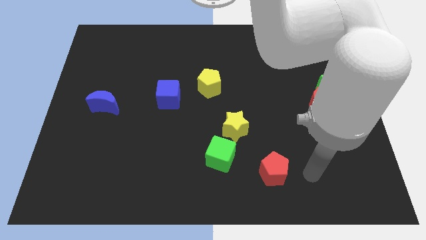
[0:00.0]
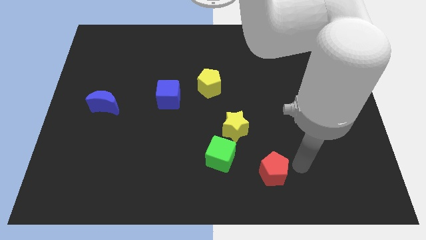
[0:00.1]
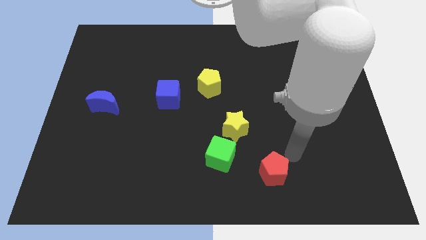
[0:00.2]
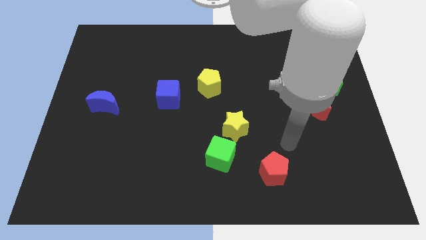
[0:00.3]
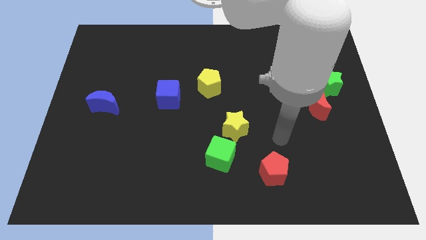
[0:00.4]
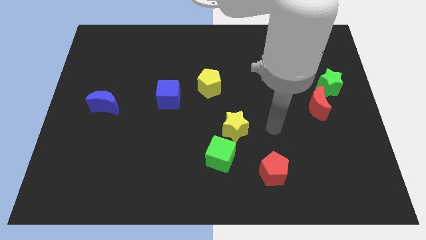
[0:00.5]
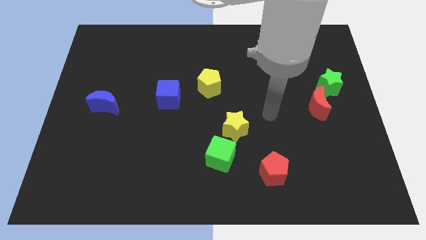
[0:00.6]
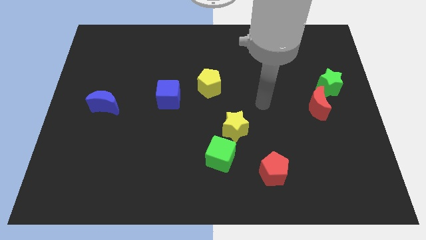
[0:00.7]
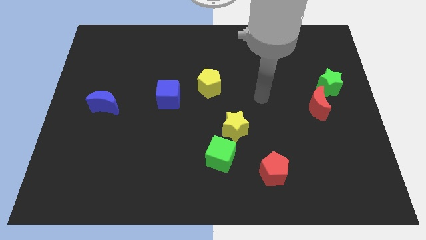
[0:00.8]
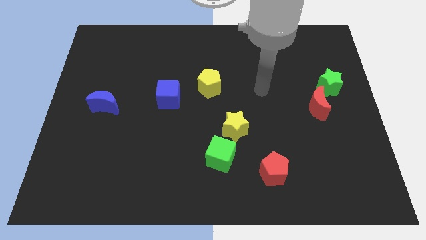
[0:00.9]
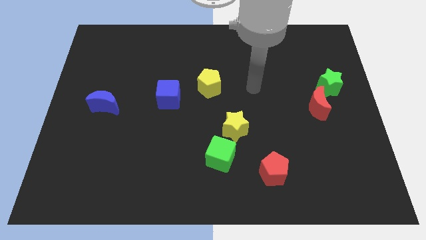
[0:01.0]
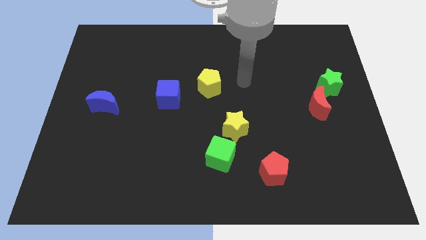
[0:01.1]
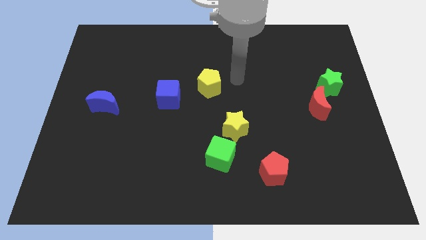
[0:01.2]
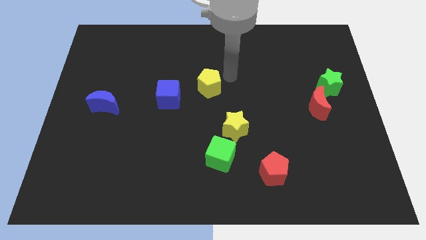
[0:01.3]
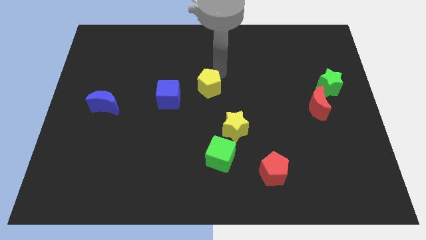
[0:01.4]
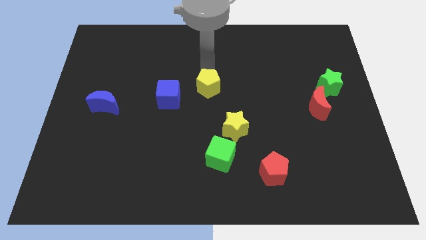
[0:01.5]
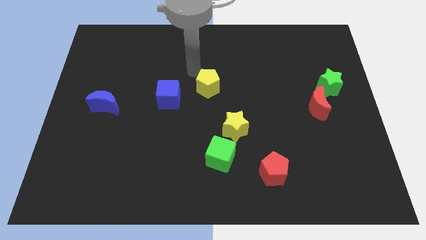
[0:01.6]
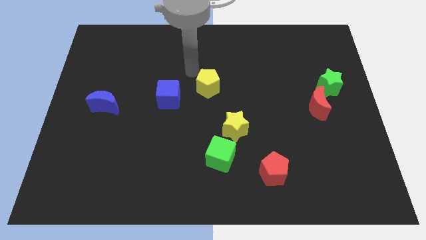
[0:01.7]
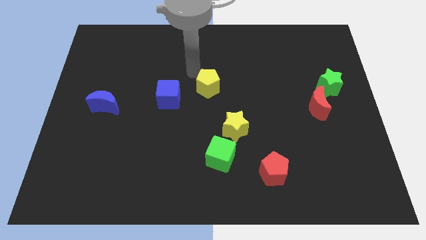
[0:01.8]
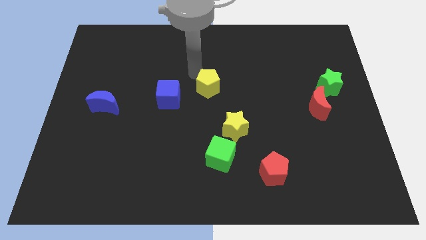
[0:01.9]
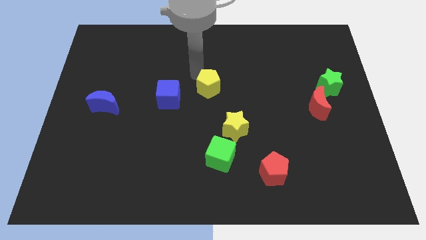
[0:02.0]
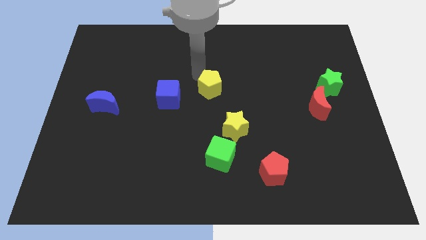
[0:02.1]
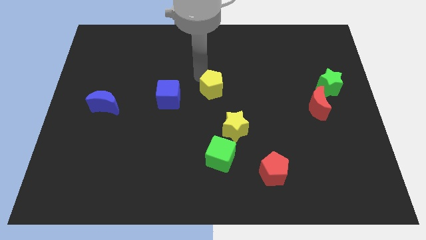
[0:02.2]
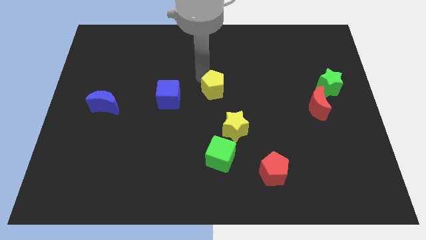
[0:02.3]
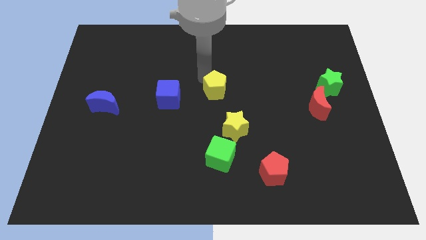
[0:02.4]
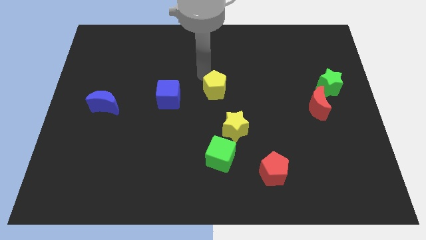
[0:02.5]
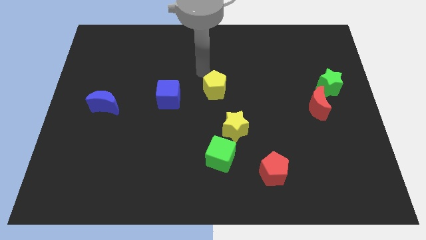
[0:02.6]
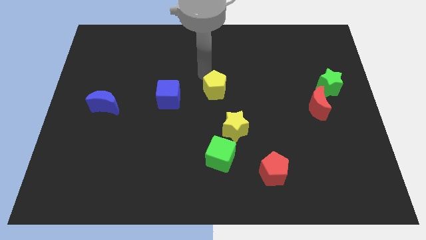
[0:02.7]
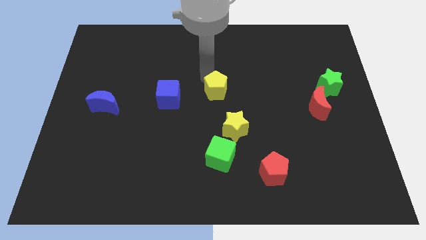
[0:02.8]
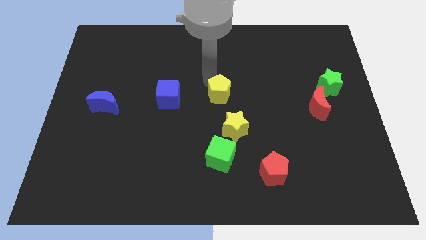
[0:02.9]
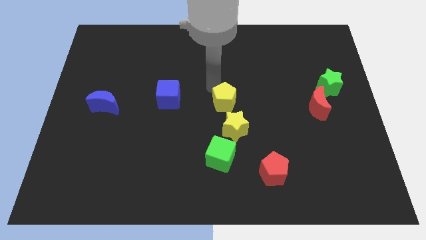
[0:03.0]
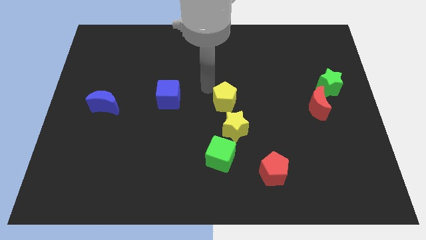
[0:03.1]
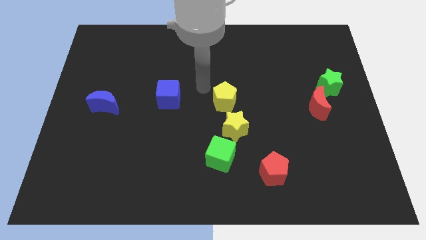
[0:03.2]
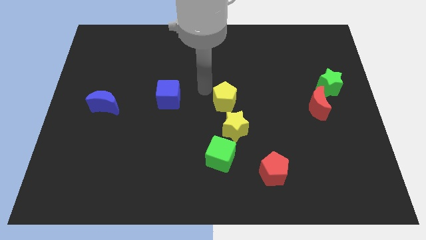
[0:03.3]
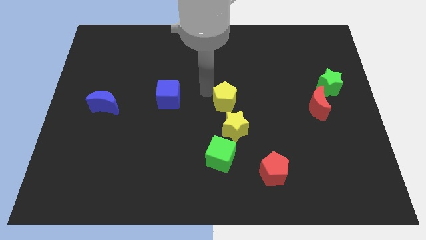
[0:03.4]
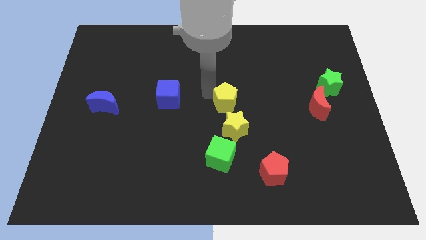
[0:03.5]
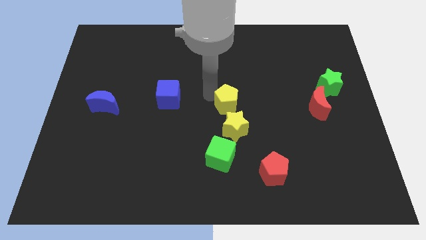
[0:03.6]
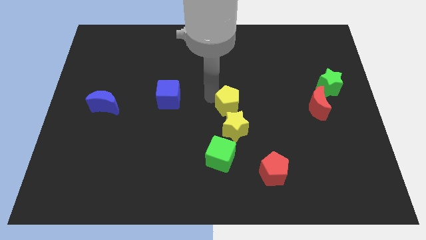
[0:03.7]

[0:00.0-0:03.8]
slightly slide the yellow pentagon downwards and then to the right

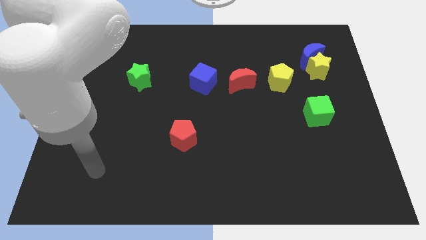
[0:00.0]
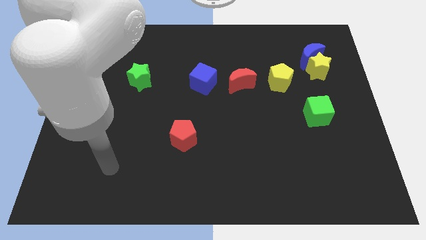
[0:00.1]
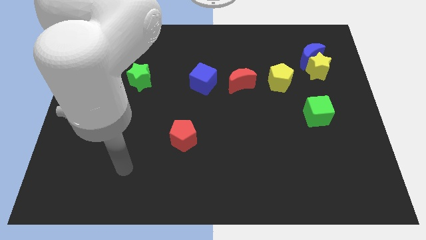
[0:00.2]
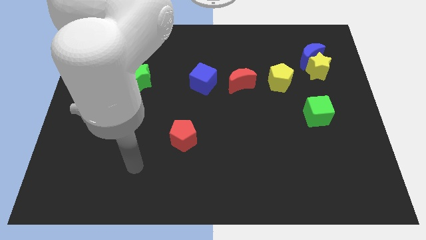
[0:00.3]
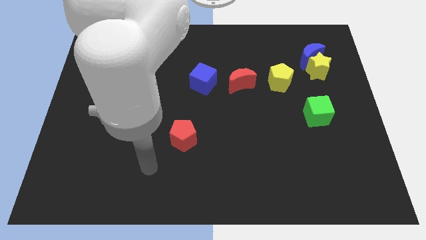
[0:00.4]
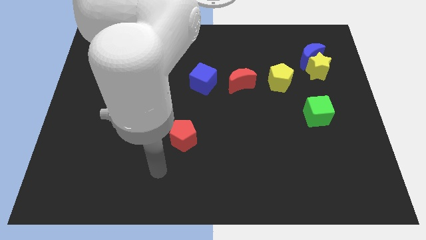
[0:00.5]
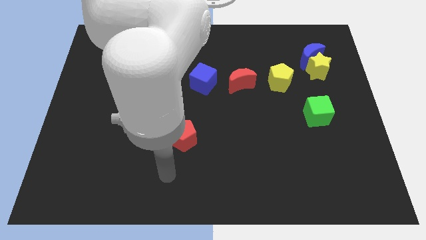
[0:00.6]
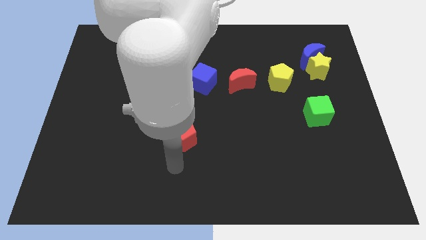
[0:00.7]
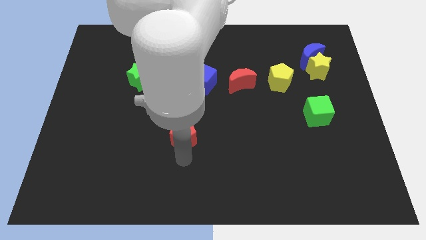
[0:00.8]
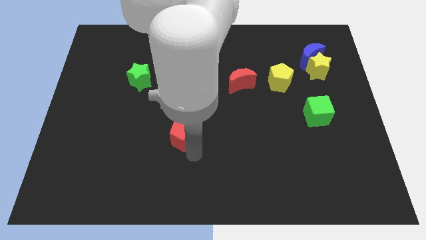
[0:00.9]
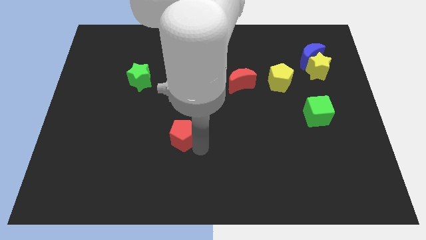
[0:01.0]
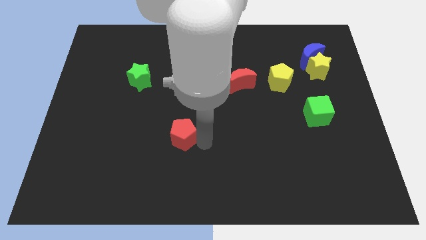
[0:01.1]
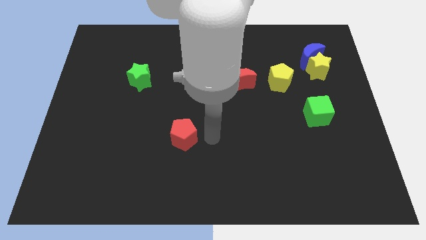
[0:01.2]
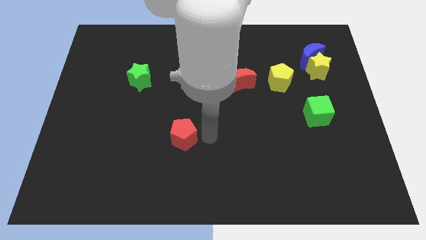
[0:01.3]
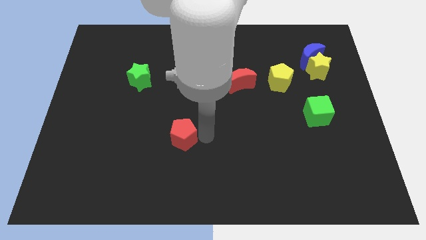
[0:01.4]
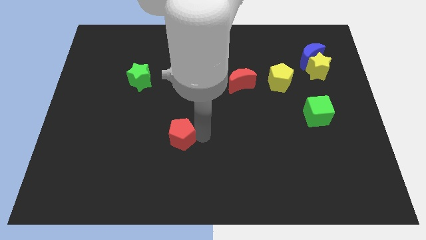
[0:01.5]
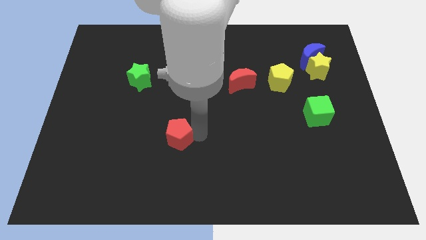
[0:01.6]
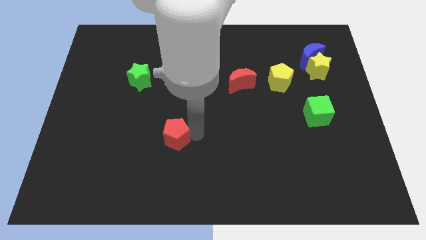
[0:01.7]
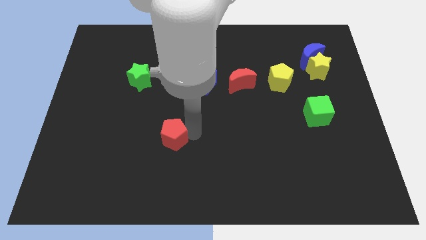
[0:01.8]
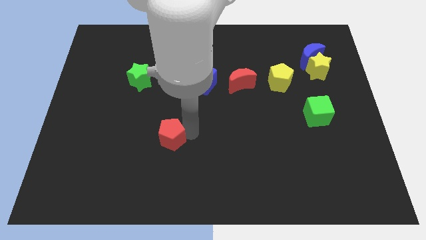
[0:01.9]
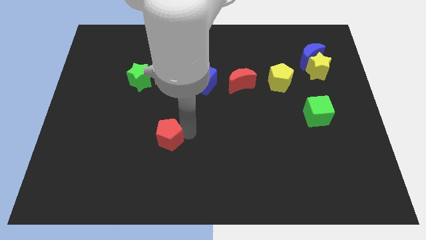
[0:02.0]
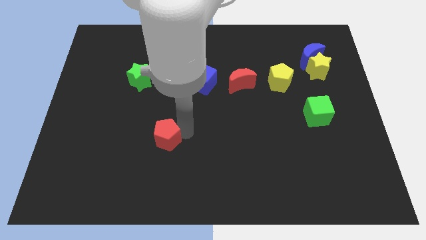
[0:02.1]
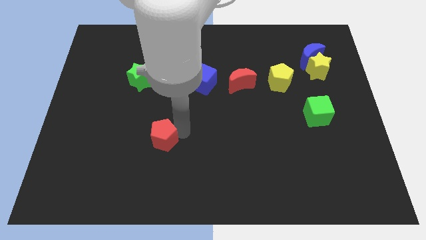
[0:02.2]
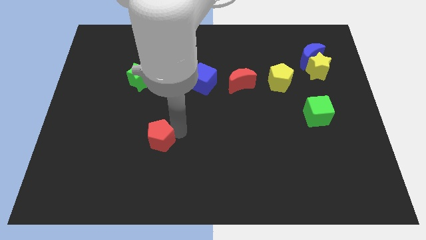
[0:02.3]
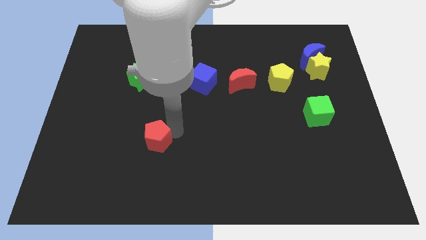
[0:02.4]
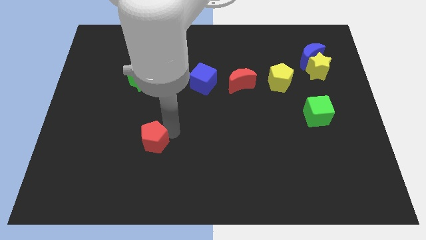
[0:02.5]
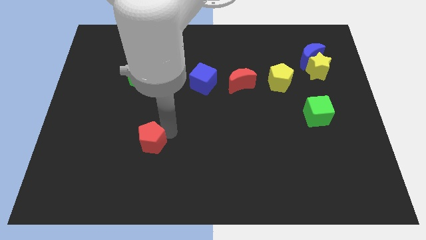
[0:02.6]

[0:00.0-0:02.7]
slightly push the red pentagon left

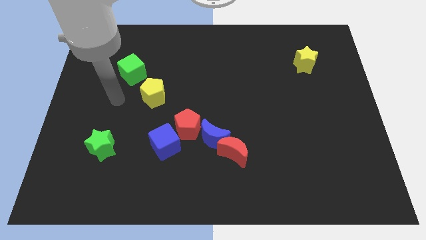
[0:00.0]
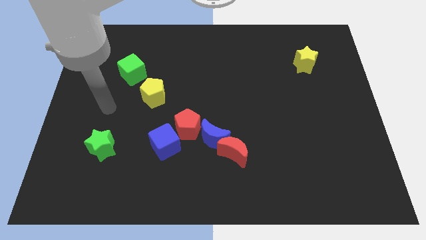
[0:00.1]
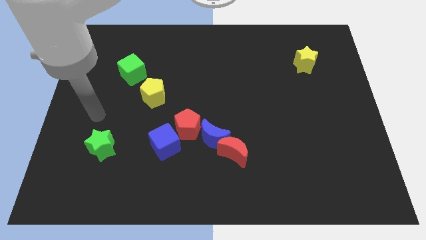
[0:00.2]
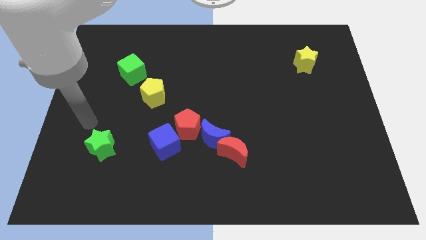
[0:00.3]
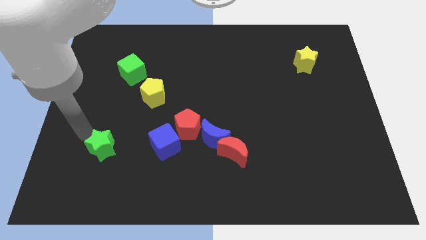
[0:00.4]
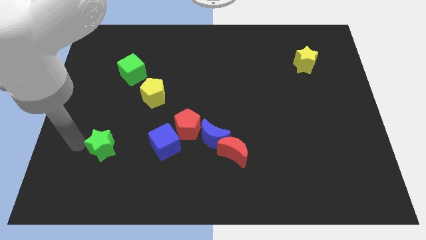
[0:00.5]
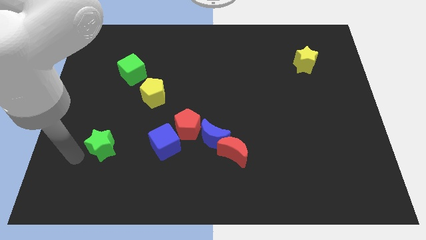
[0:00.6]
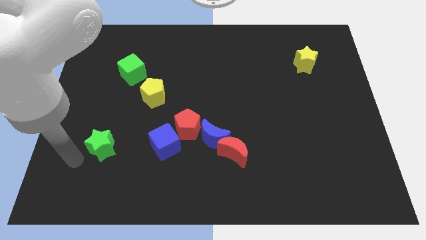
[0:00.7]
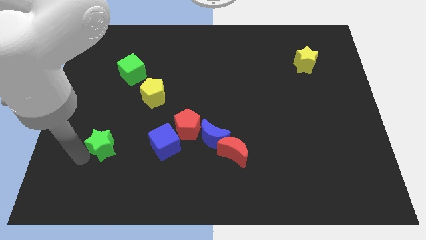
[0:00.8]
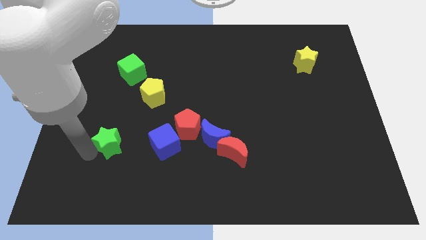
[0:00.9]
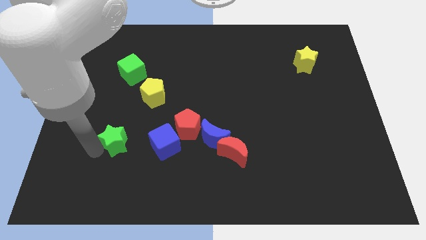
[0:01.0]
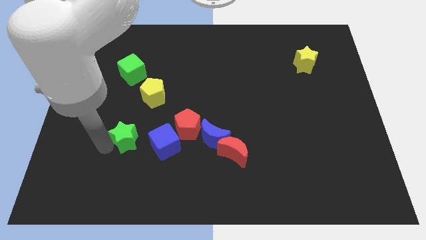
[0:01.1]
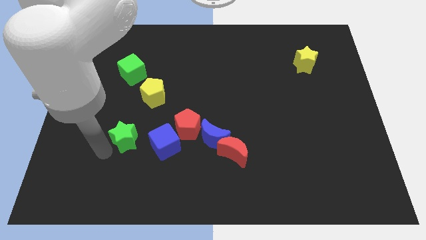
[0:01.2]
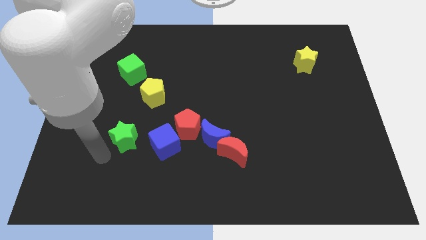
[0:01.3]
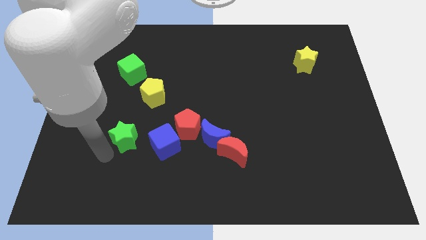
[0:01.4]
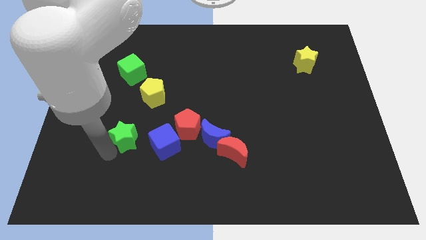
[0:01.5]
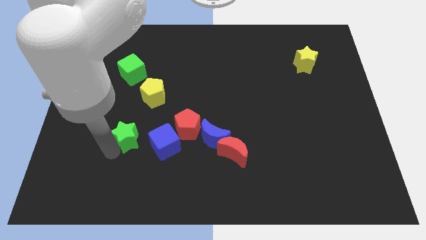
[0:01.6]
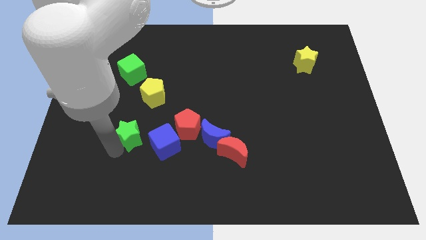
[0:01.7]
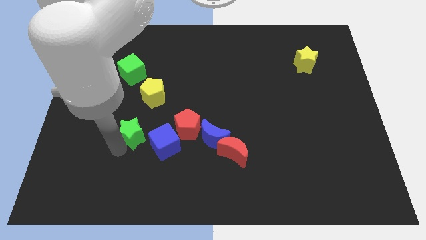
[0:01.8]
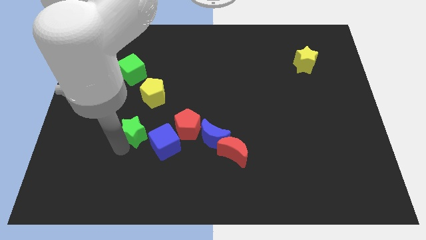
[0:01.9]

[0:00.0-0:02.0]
slide the green star a little bit upwards and to the right diagonally
